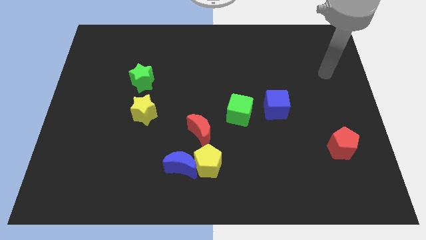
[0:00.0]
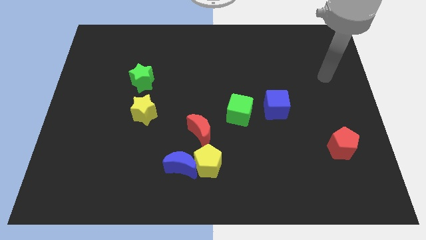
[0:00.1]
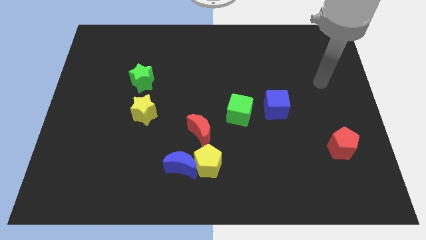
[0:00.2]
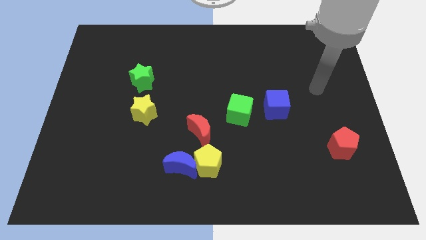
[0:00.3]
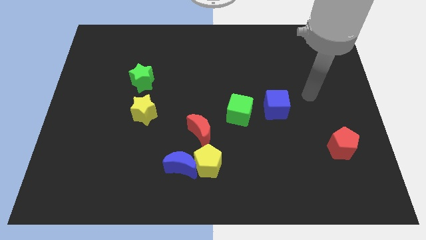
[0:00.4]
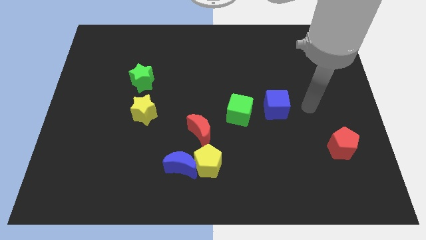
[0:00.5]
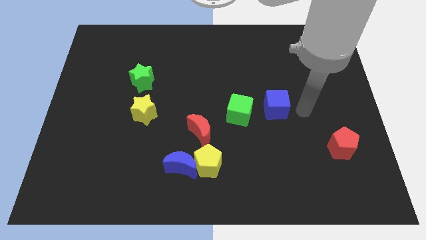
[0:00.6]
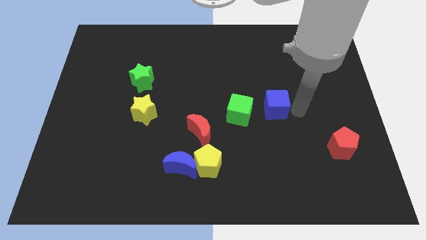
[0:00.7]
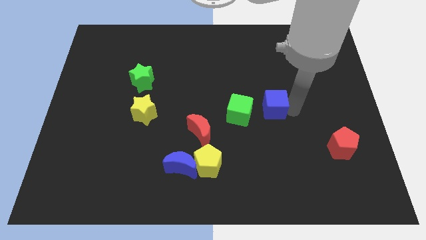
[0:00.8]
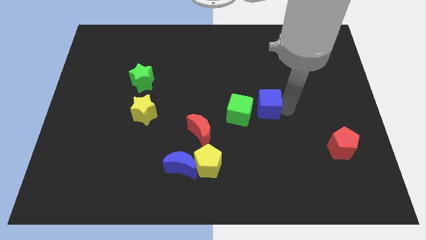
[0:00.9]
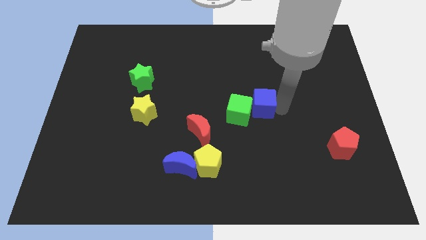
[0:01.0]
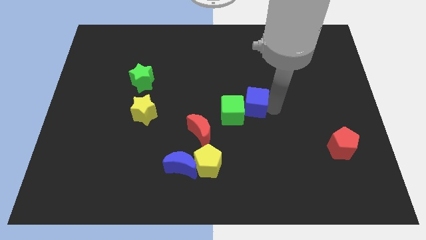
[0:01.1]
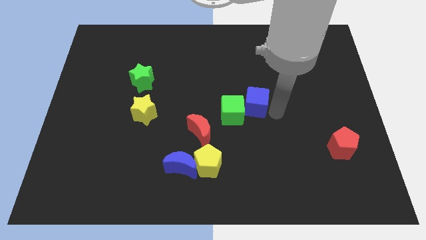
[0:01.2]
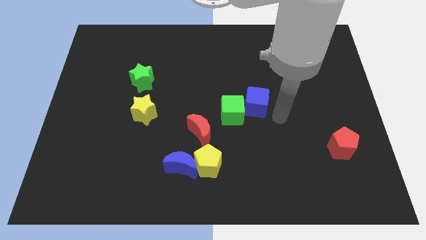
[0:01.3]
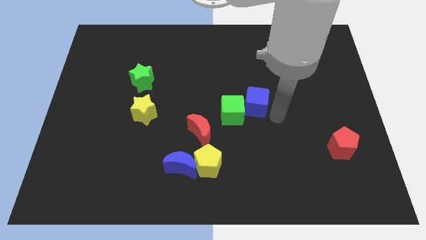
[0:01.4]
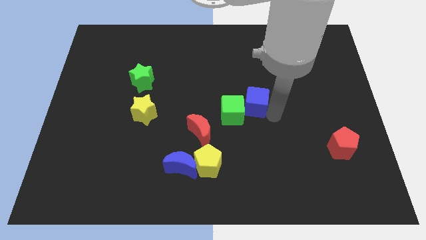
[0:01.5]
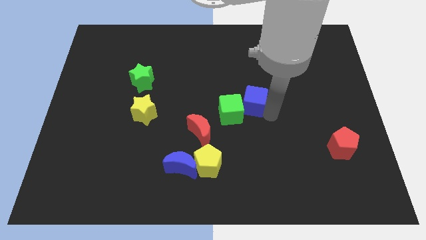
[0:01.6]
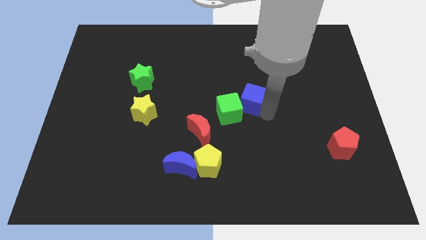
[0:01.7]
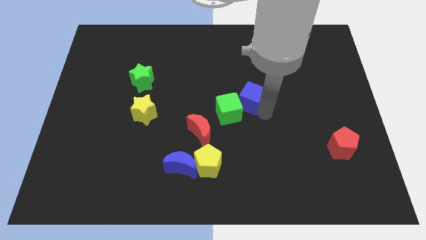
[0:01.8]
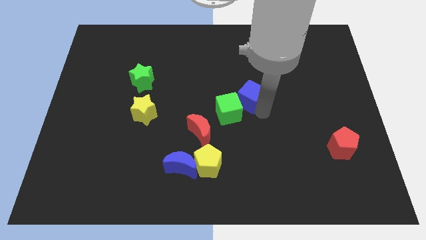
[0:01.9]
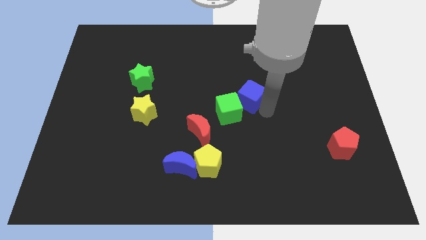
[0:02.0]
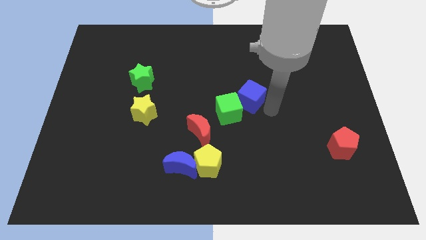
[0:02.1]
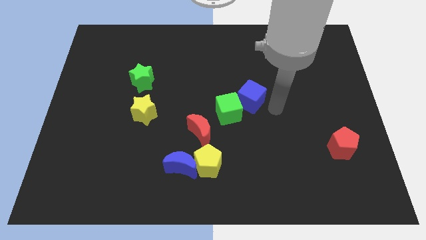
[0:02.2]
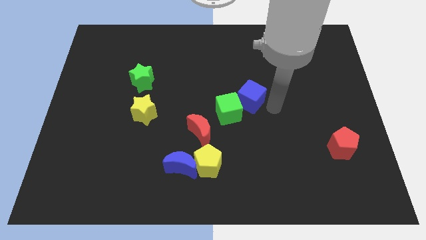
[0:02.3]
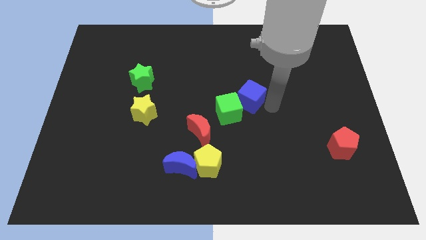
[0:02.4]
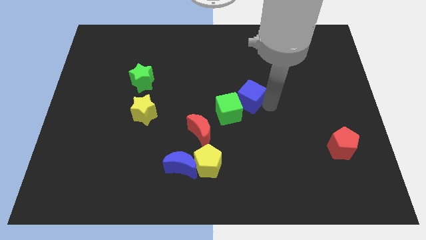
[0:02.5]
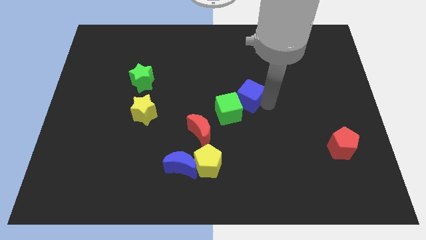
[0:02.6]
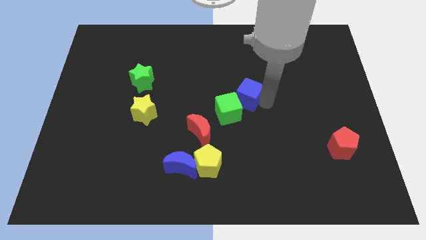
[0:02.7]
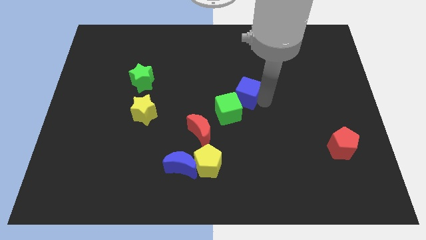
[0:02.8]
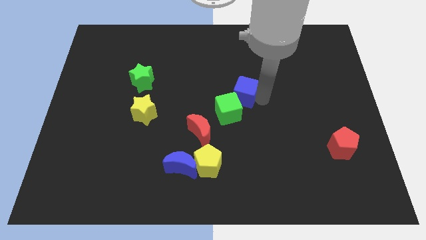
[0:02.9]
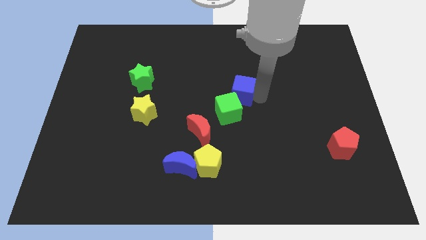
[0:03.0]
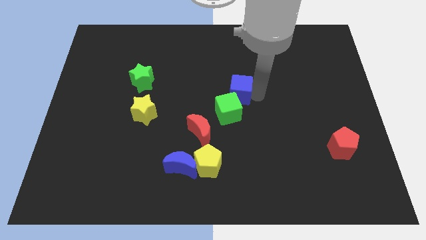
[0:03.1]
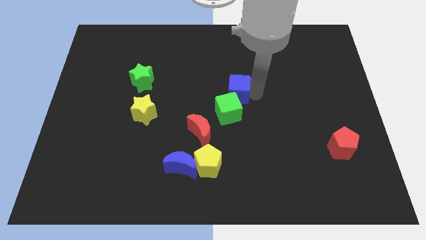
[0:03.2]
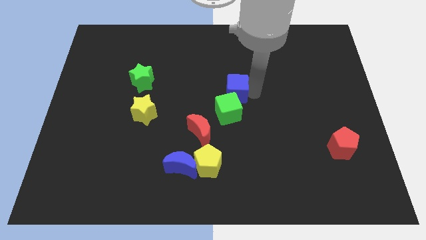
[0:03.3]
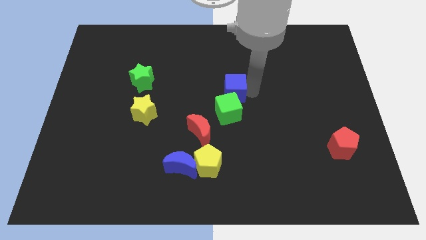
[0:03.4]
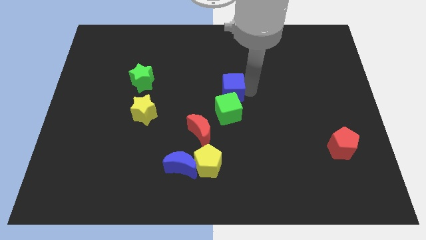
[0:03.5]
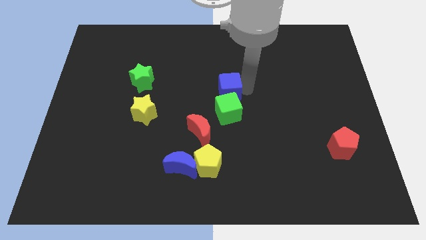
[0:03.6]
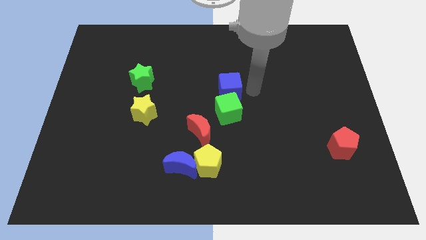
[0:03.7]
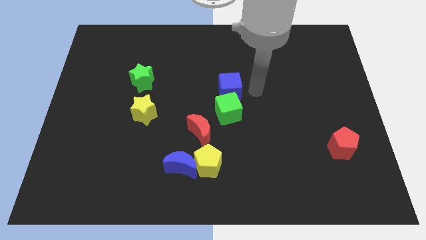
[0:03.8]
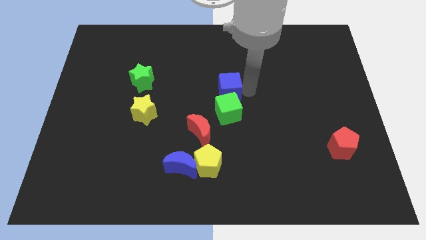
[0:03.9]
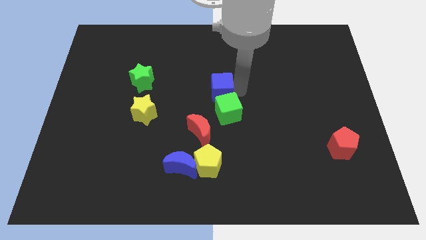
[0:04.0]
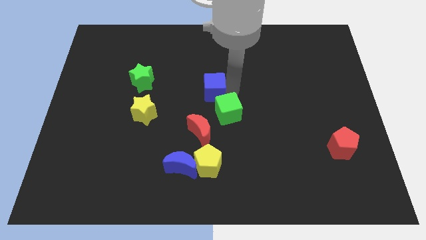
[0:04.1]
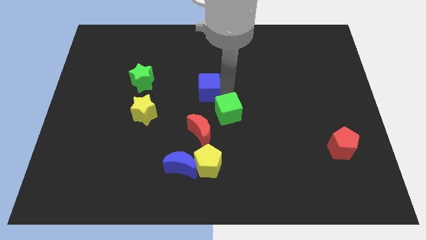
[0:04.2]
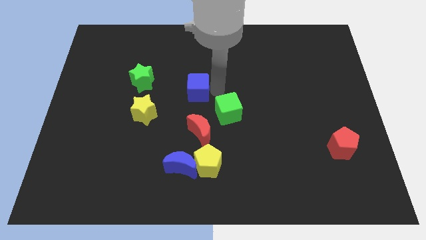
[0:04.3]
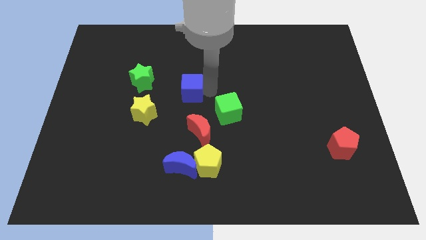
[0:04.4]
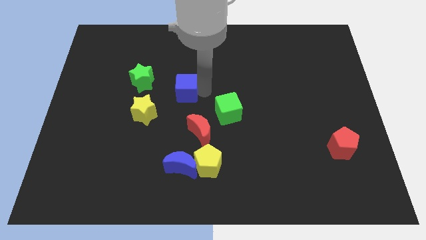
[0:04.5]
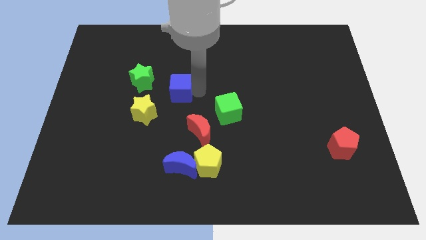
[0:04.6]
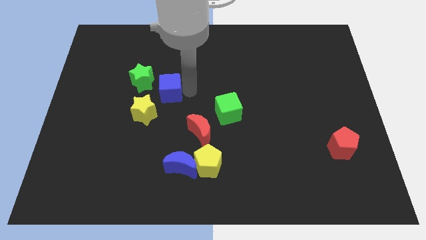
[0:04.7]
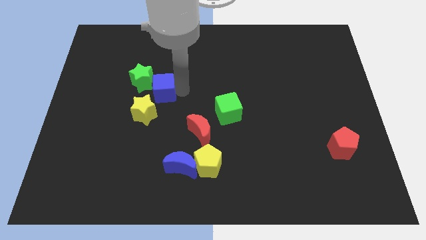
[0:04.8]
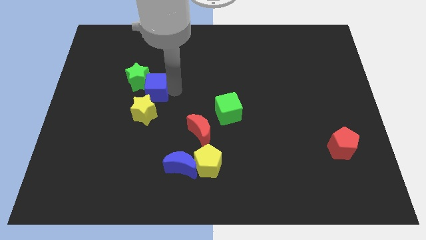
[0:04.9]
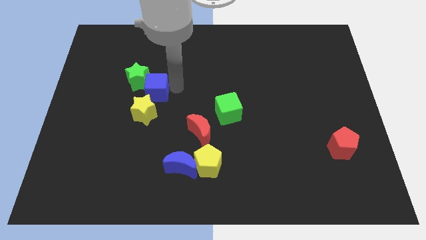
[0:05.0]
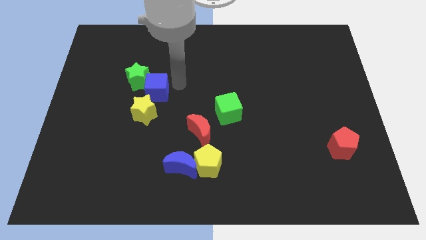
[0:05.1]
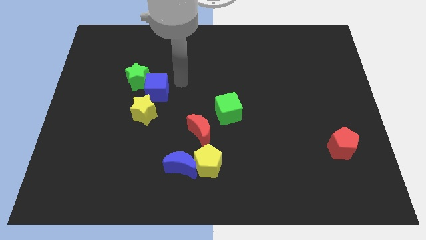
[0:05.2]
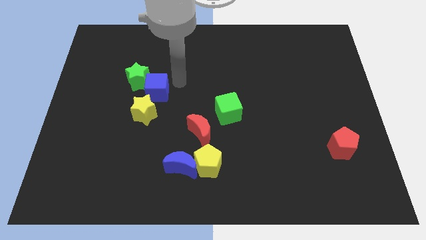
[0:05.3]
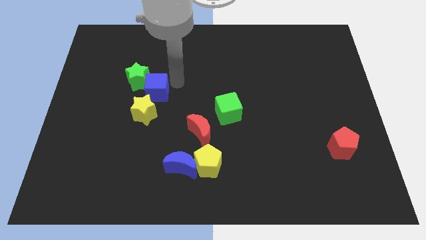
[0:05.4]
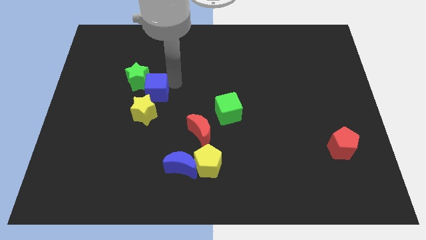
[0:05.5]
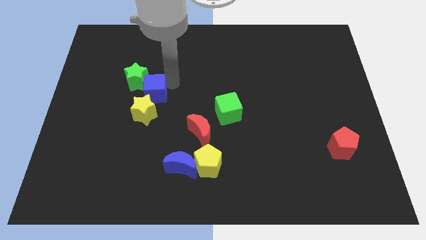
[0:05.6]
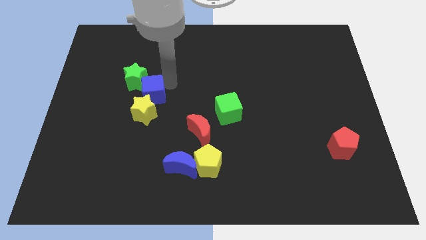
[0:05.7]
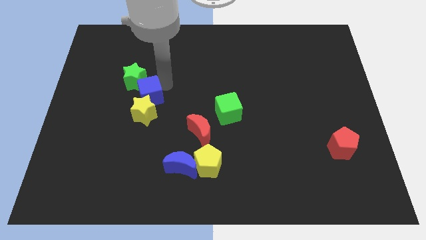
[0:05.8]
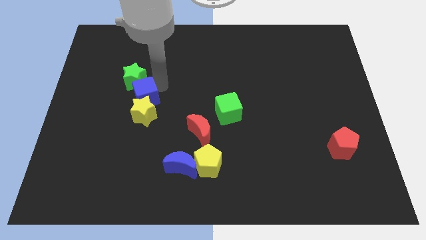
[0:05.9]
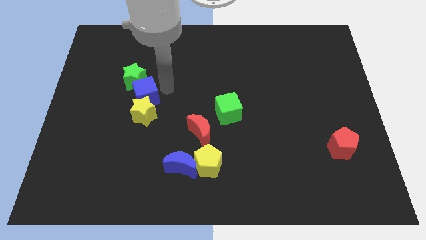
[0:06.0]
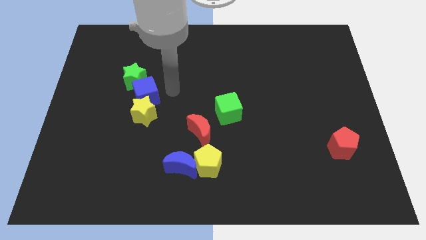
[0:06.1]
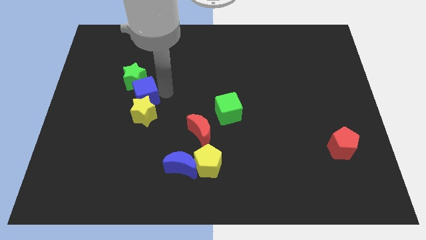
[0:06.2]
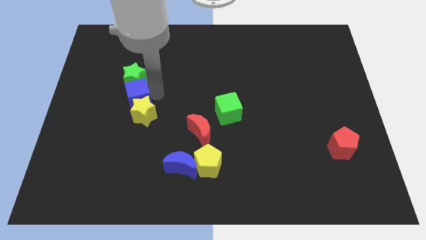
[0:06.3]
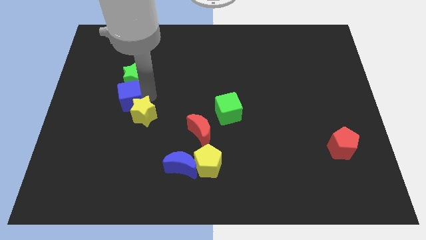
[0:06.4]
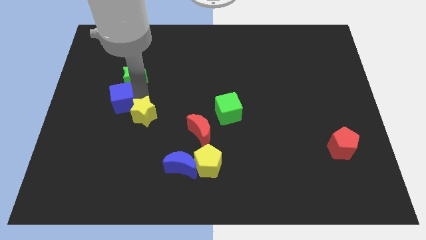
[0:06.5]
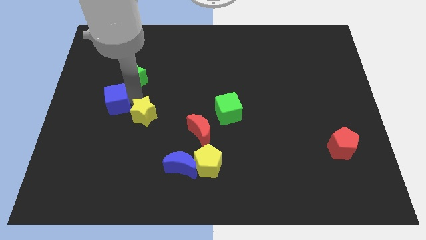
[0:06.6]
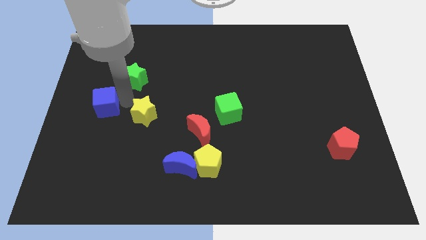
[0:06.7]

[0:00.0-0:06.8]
move the blue cube to the left side
